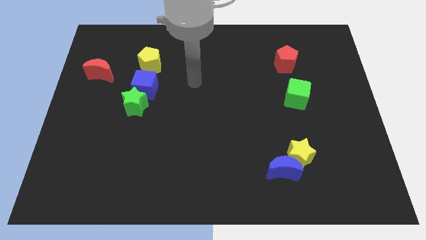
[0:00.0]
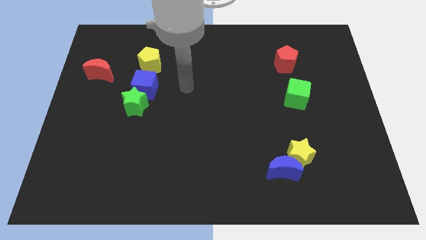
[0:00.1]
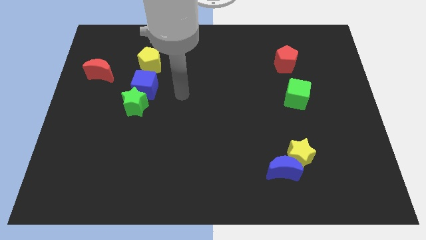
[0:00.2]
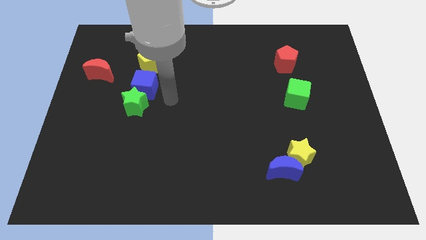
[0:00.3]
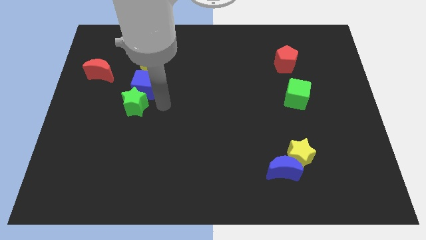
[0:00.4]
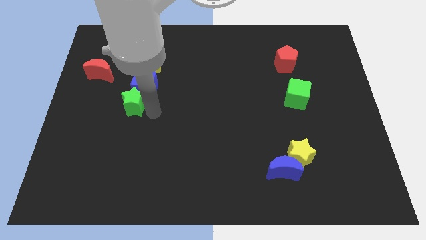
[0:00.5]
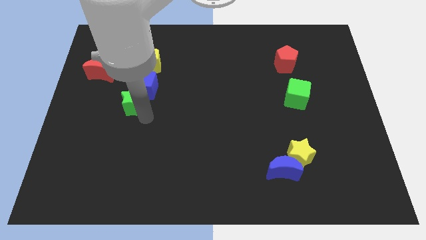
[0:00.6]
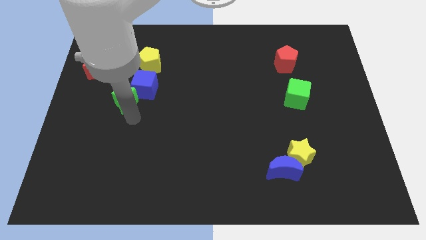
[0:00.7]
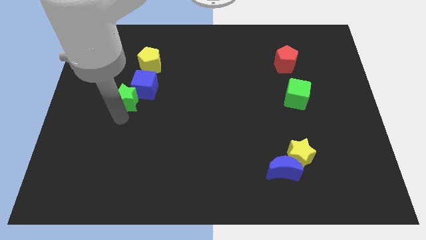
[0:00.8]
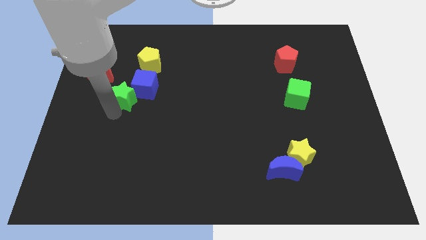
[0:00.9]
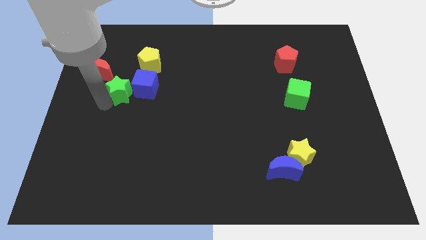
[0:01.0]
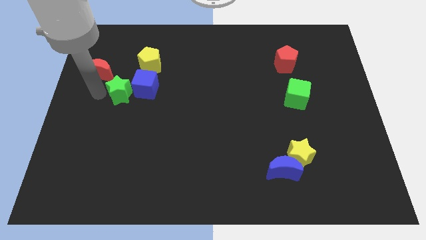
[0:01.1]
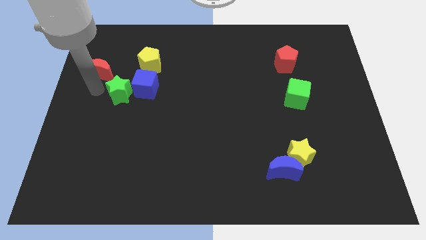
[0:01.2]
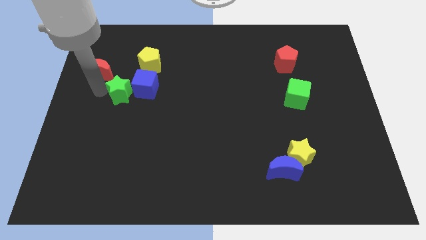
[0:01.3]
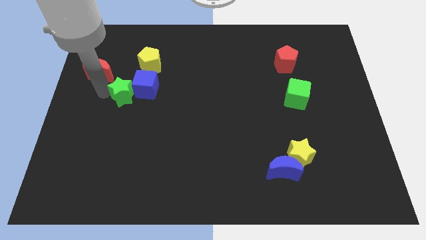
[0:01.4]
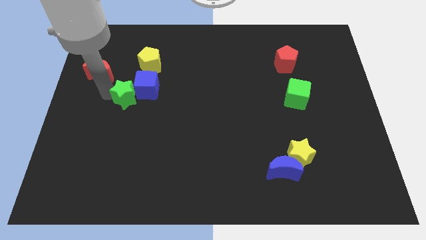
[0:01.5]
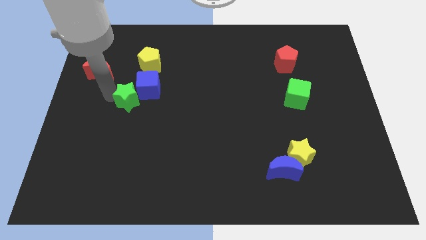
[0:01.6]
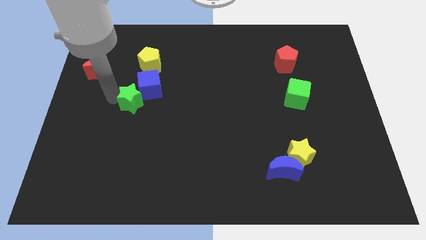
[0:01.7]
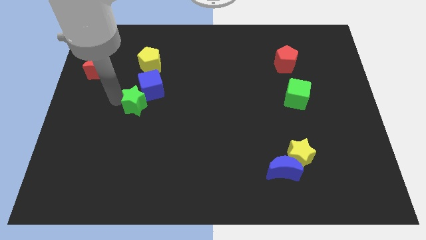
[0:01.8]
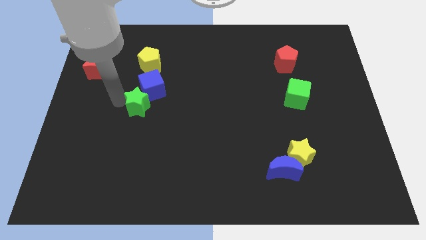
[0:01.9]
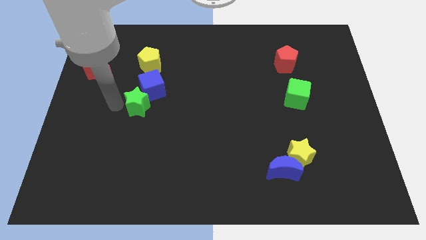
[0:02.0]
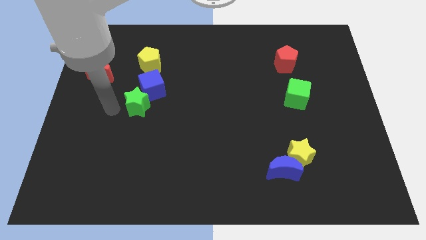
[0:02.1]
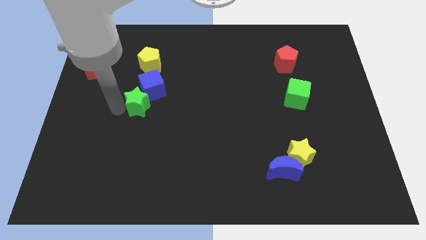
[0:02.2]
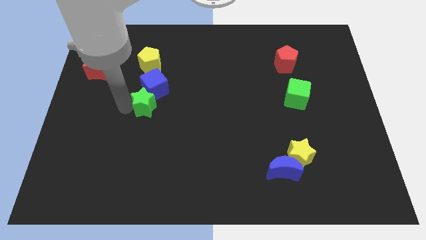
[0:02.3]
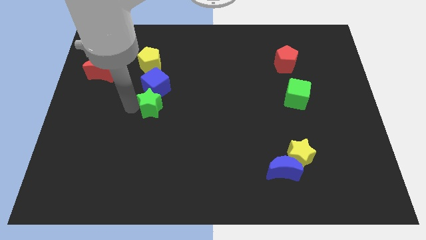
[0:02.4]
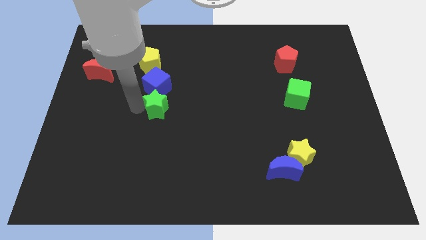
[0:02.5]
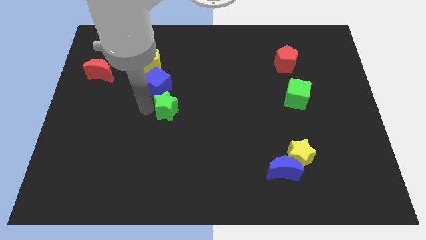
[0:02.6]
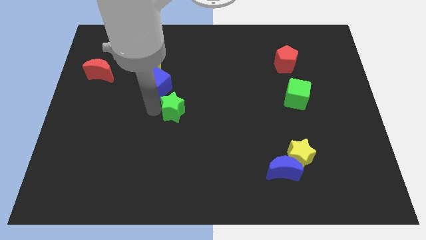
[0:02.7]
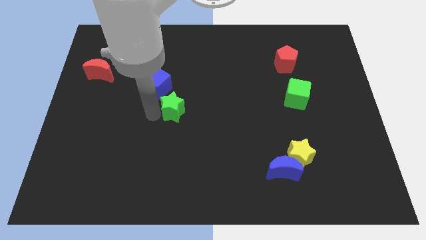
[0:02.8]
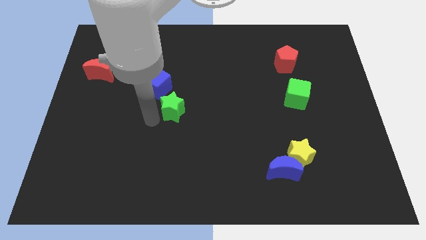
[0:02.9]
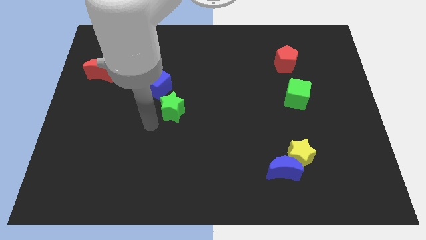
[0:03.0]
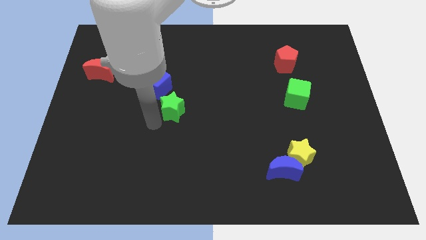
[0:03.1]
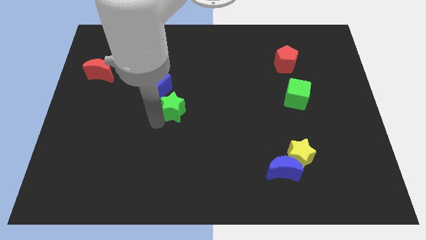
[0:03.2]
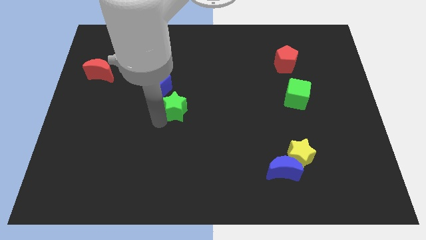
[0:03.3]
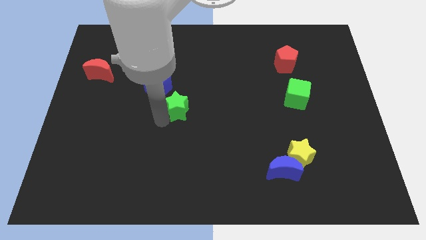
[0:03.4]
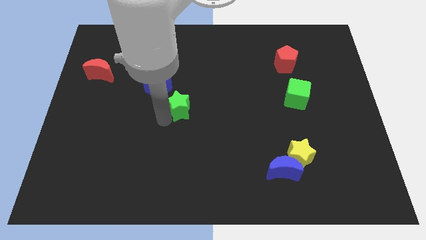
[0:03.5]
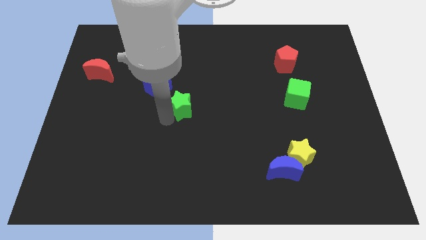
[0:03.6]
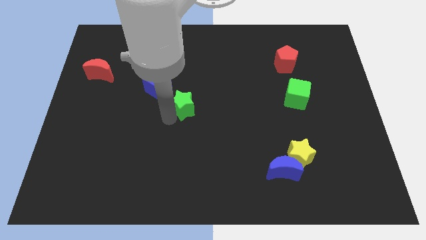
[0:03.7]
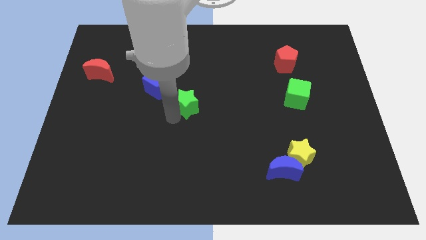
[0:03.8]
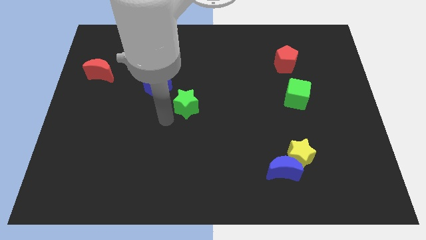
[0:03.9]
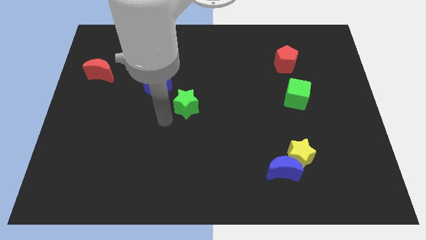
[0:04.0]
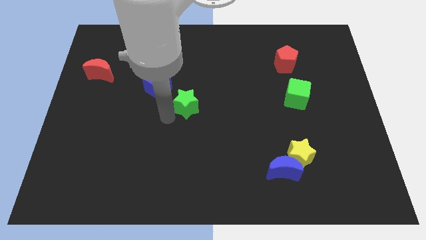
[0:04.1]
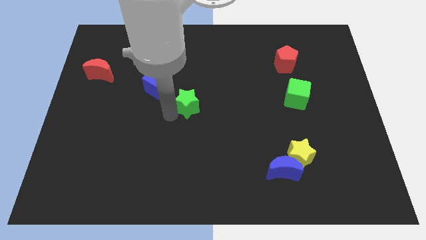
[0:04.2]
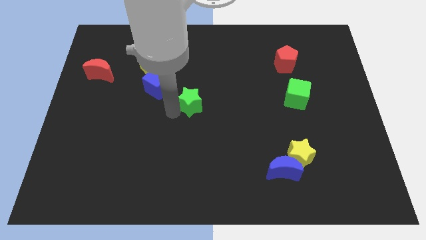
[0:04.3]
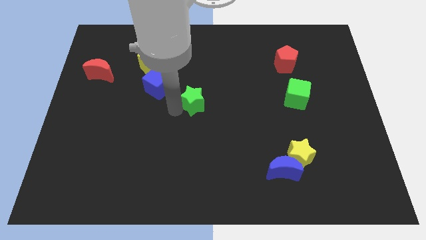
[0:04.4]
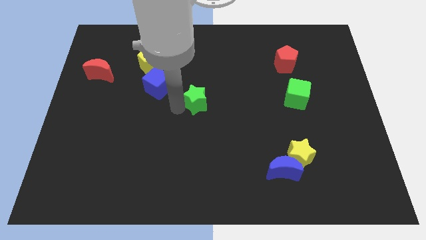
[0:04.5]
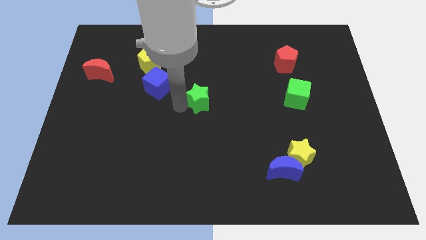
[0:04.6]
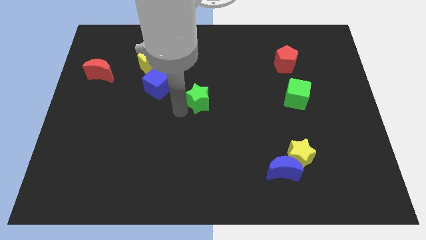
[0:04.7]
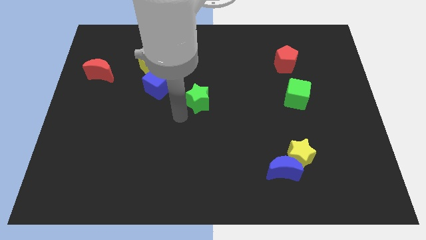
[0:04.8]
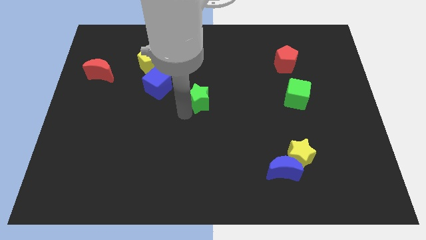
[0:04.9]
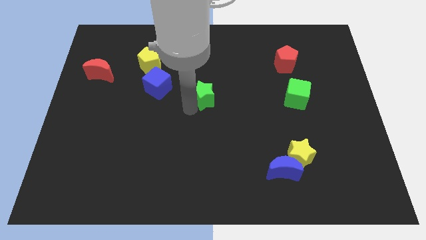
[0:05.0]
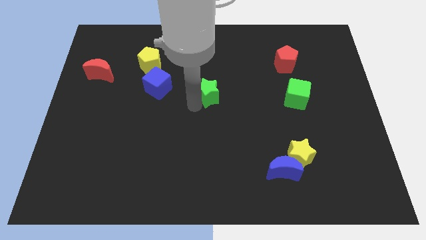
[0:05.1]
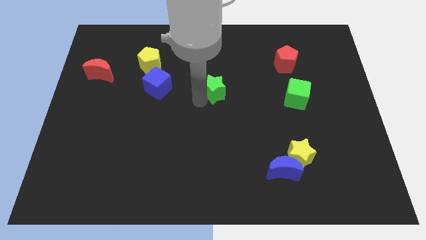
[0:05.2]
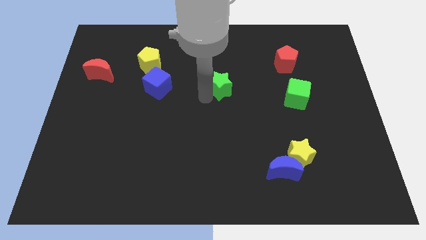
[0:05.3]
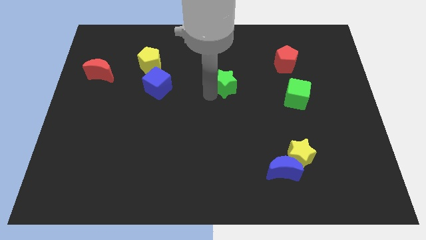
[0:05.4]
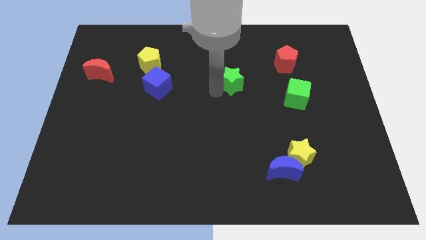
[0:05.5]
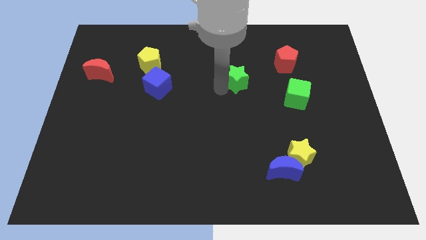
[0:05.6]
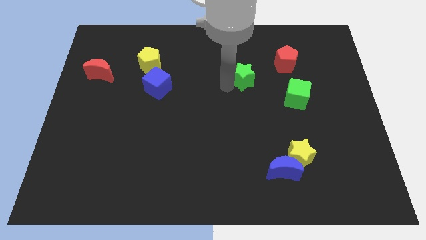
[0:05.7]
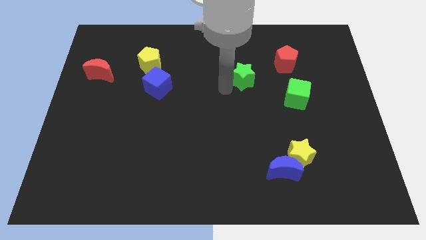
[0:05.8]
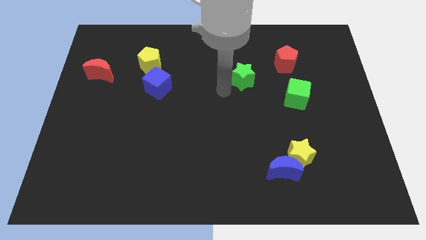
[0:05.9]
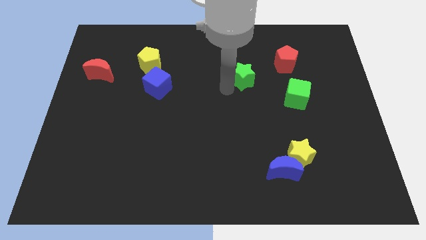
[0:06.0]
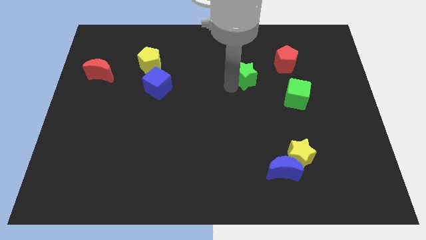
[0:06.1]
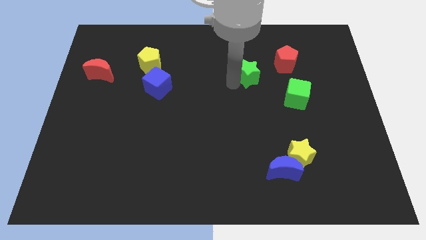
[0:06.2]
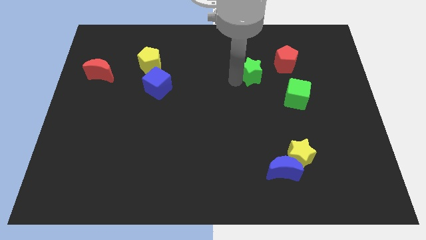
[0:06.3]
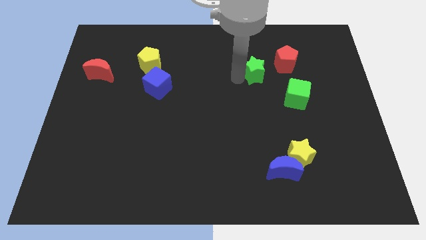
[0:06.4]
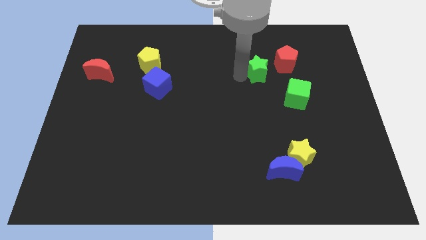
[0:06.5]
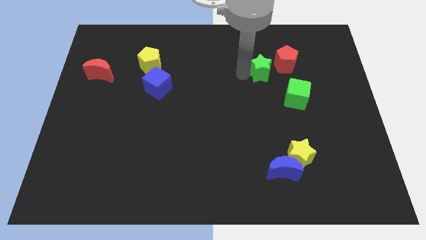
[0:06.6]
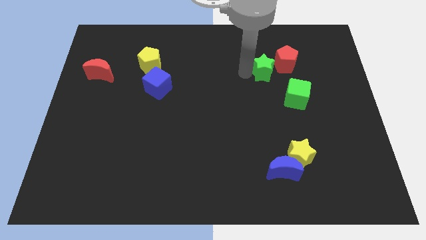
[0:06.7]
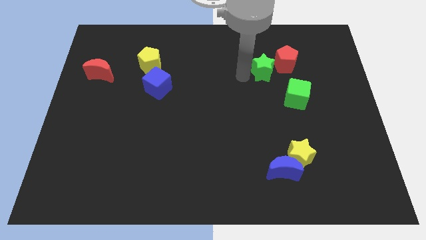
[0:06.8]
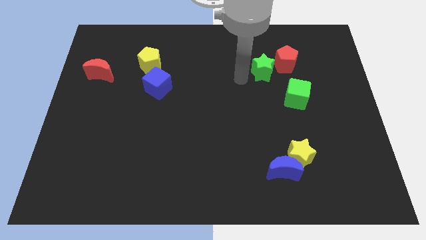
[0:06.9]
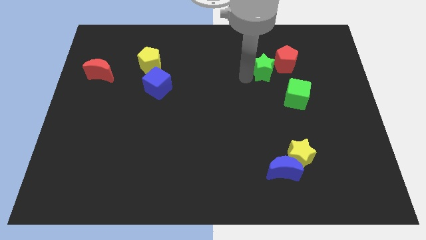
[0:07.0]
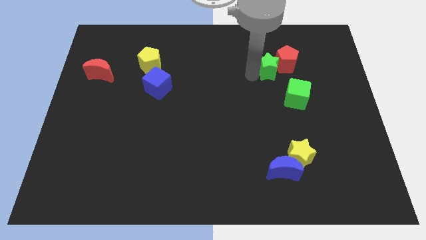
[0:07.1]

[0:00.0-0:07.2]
move the green star towards the red pentagon
